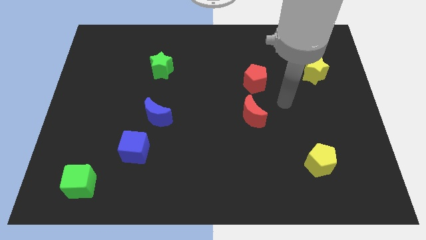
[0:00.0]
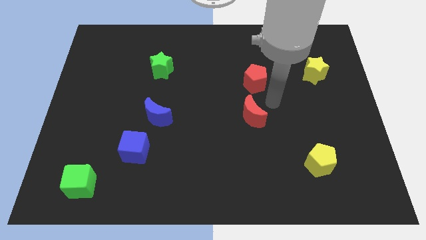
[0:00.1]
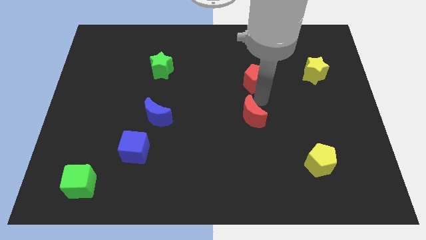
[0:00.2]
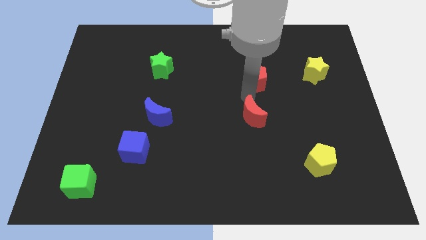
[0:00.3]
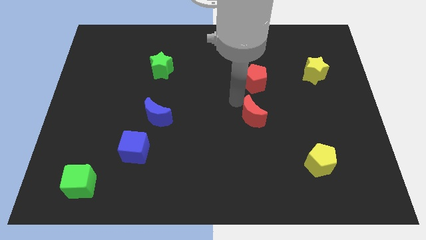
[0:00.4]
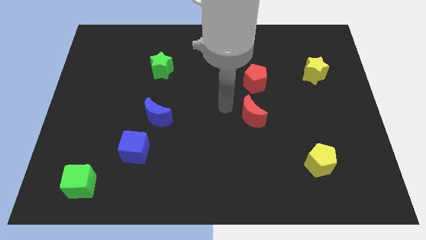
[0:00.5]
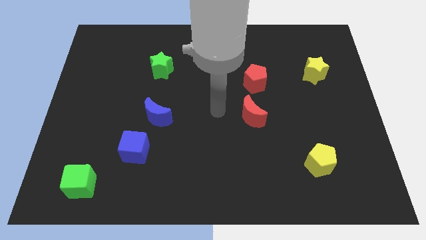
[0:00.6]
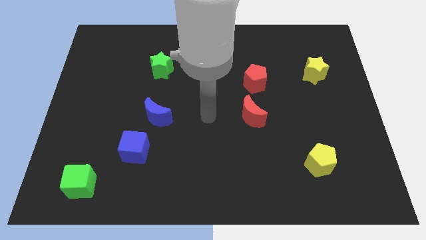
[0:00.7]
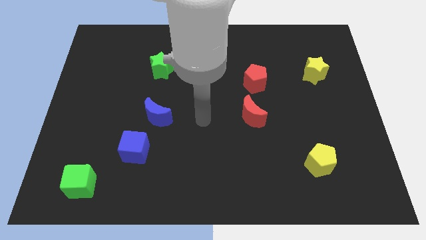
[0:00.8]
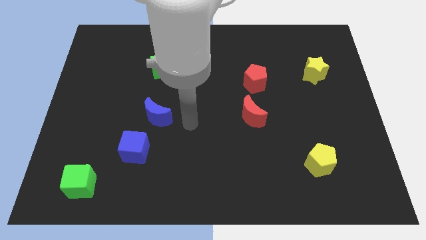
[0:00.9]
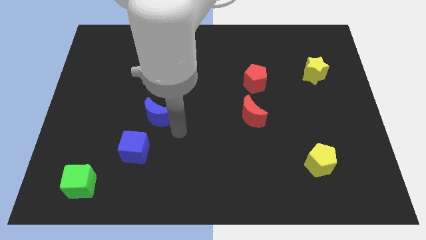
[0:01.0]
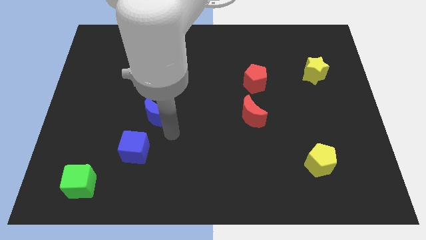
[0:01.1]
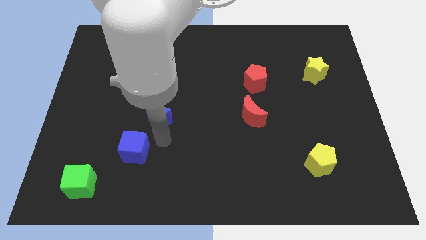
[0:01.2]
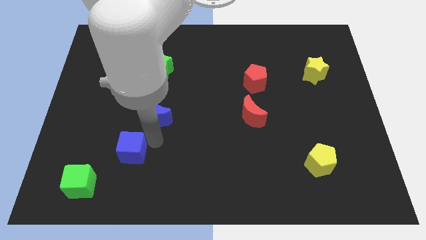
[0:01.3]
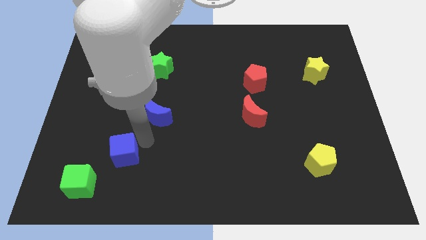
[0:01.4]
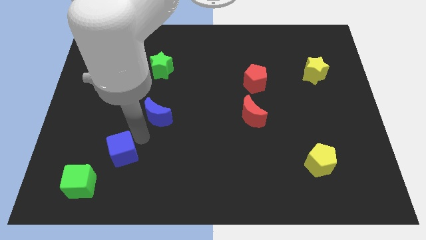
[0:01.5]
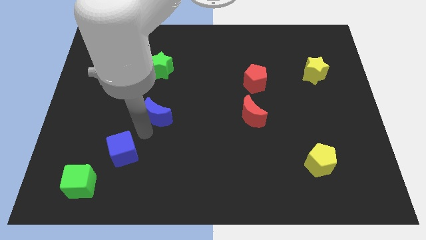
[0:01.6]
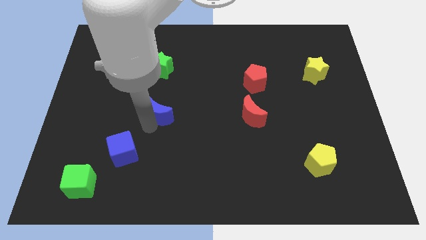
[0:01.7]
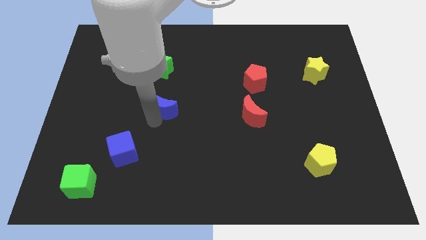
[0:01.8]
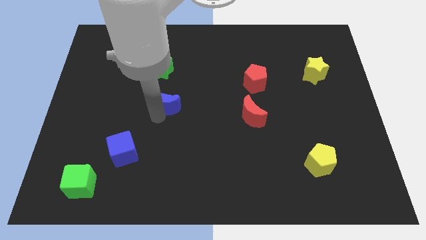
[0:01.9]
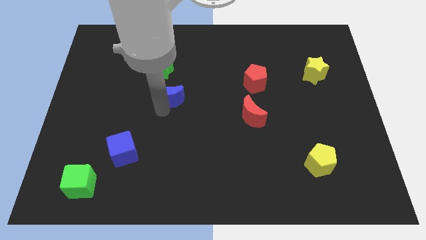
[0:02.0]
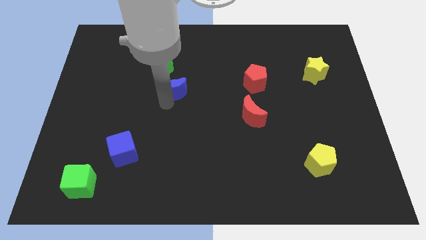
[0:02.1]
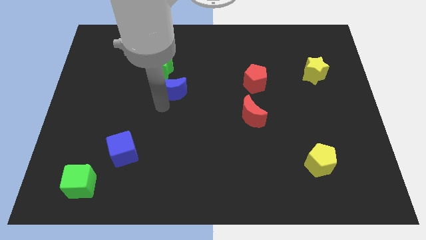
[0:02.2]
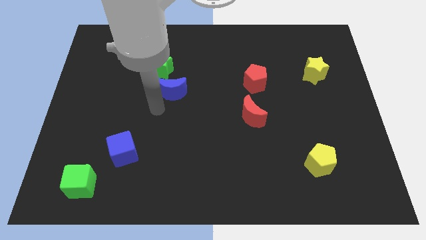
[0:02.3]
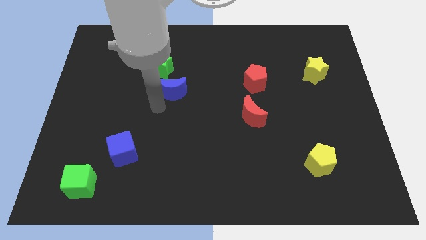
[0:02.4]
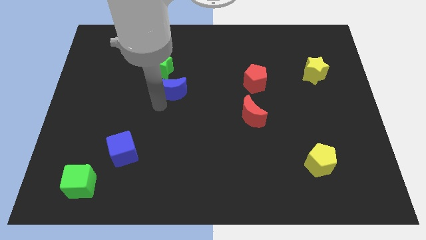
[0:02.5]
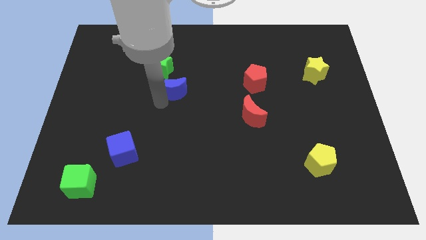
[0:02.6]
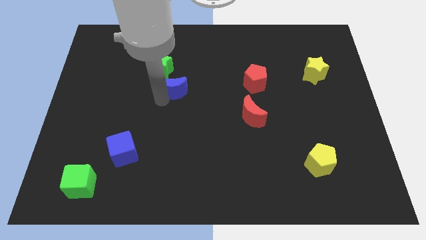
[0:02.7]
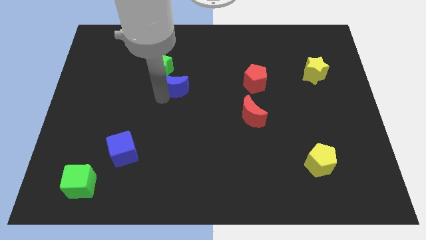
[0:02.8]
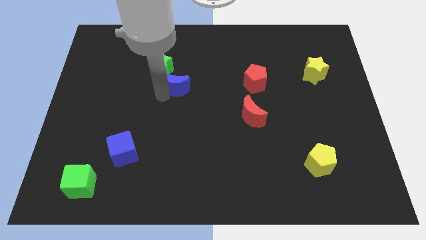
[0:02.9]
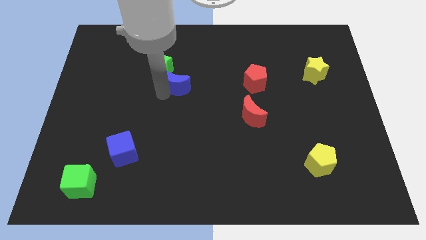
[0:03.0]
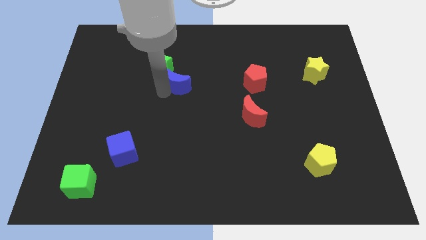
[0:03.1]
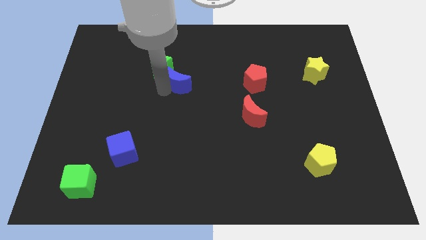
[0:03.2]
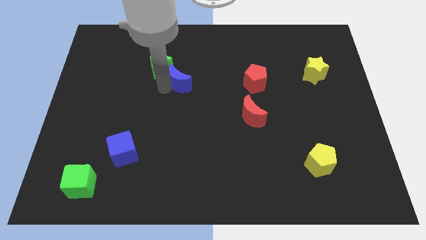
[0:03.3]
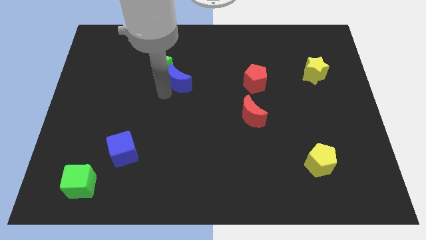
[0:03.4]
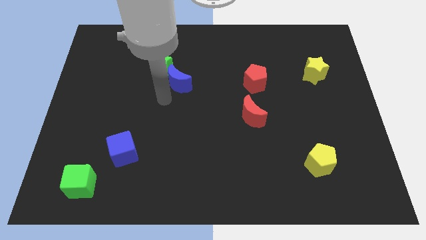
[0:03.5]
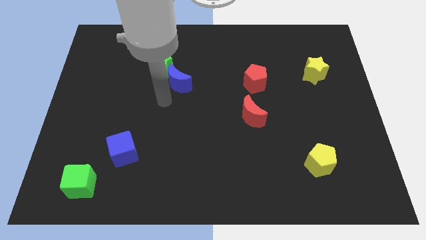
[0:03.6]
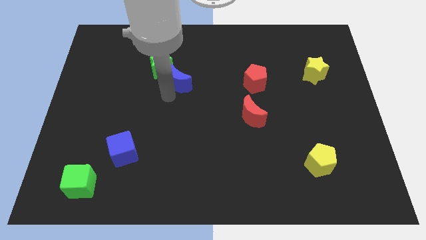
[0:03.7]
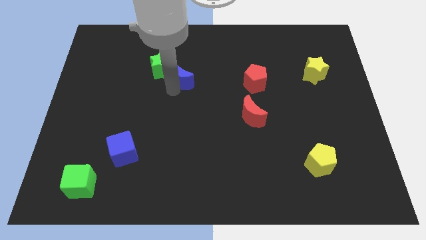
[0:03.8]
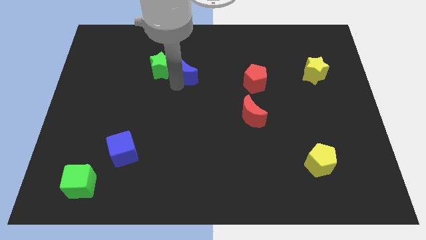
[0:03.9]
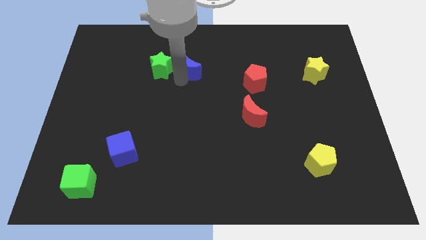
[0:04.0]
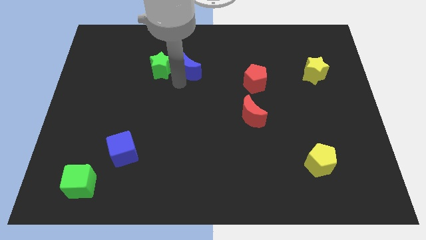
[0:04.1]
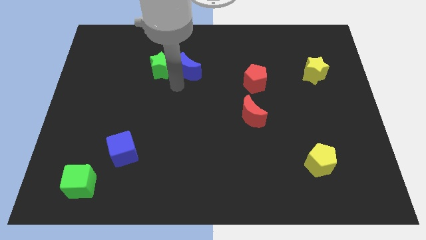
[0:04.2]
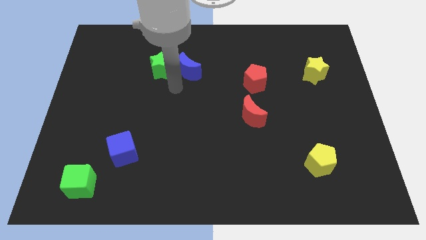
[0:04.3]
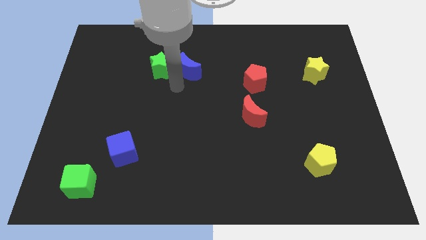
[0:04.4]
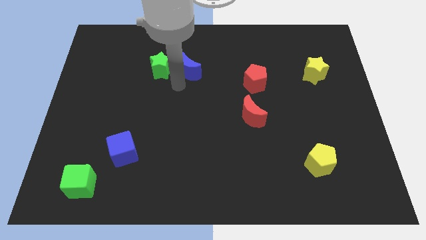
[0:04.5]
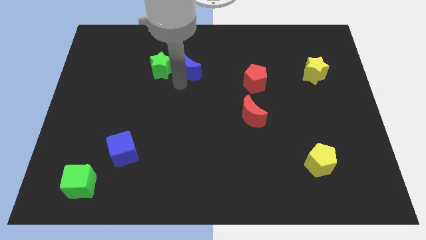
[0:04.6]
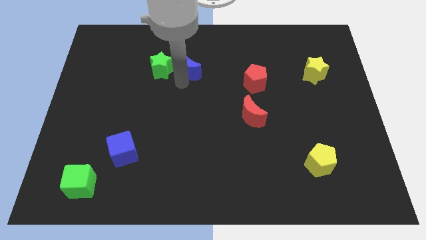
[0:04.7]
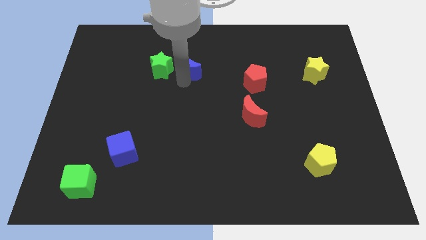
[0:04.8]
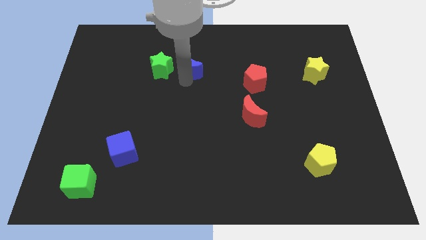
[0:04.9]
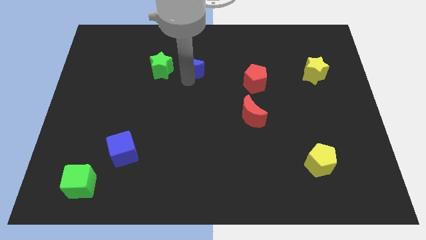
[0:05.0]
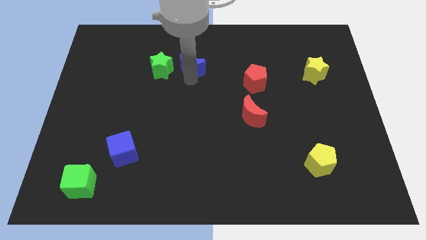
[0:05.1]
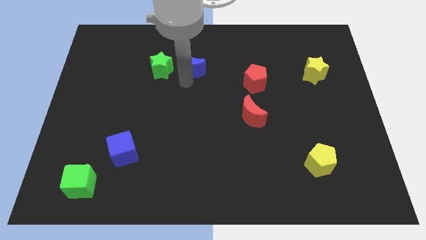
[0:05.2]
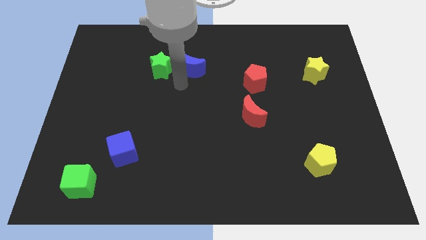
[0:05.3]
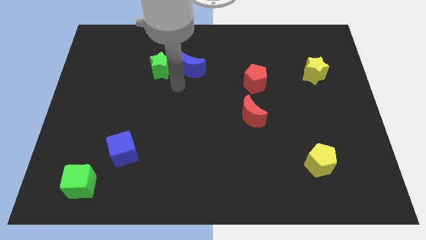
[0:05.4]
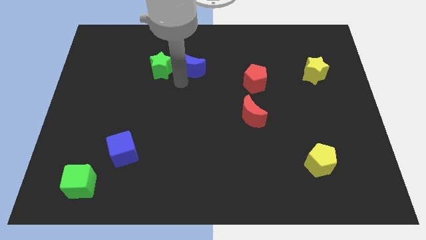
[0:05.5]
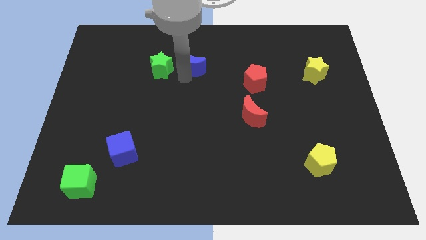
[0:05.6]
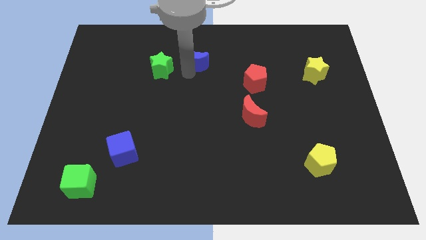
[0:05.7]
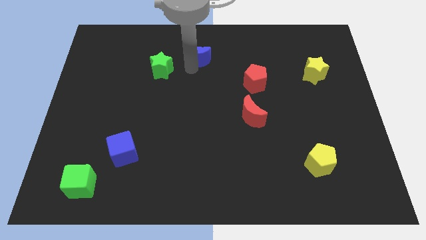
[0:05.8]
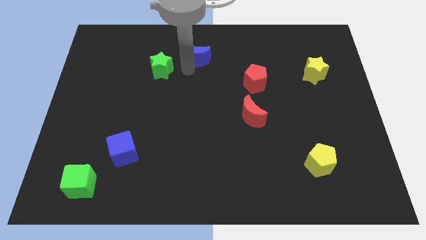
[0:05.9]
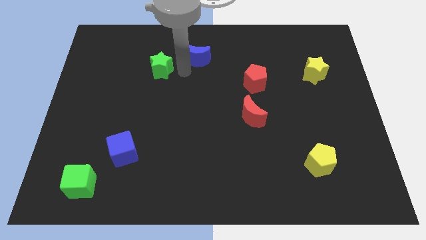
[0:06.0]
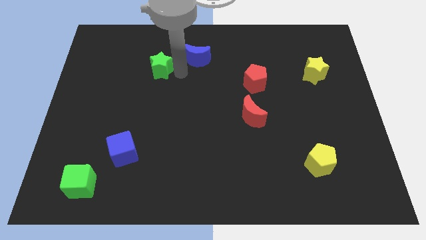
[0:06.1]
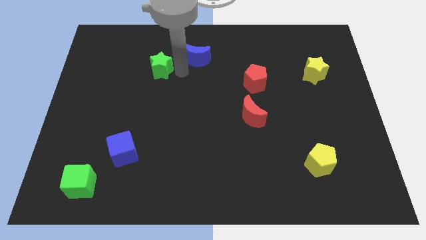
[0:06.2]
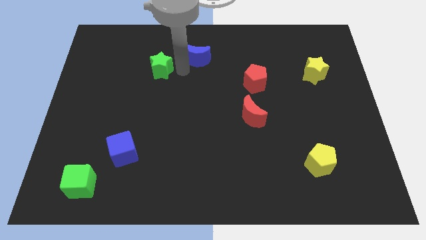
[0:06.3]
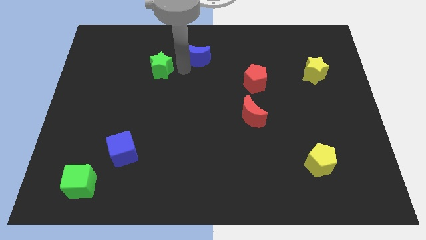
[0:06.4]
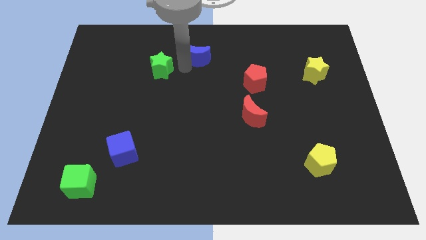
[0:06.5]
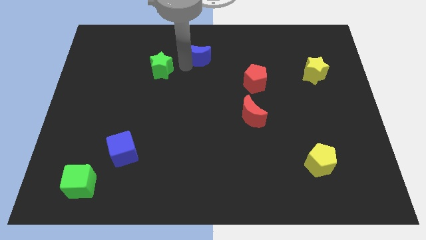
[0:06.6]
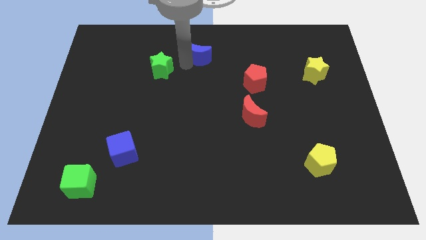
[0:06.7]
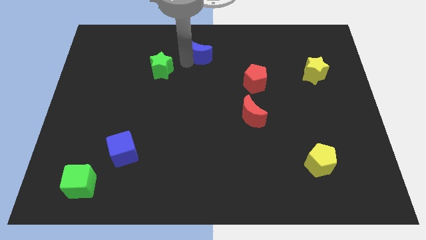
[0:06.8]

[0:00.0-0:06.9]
push the blue moon to the top side
